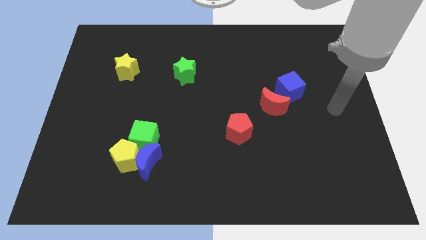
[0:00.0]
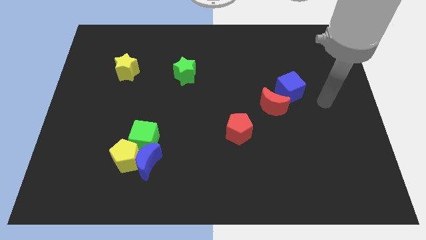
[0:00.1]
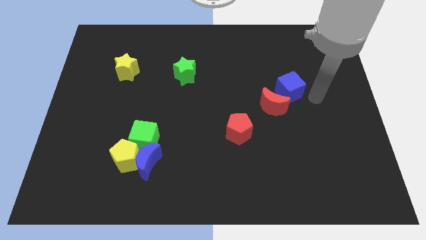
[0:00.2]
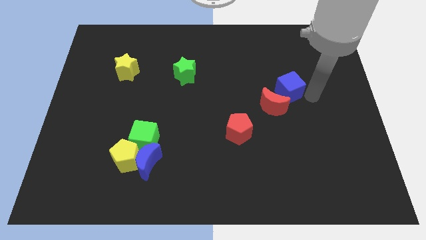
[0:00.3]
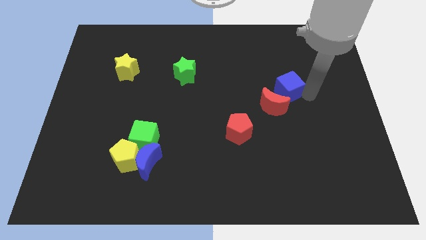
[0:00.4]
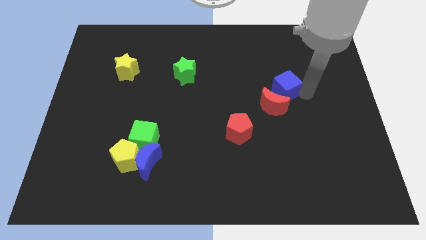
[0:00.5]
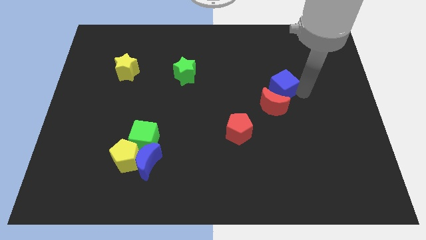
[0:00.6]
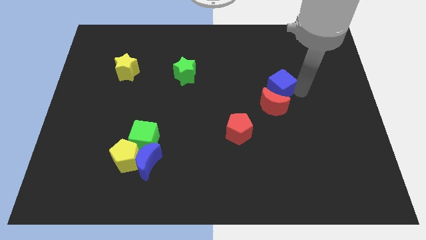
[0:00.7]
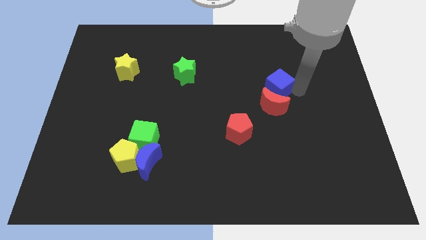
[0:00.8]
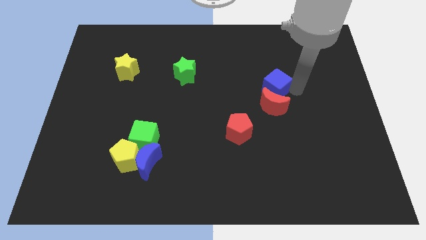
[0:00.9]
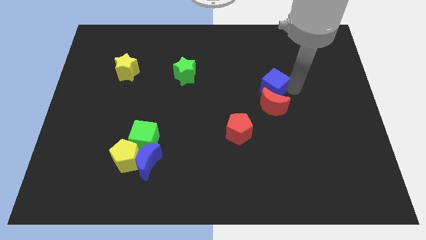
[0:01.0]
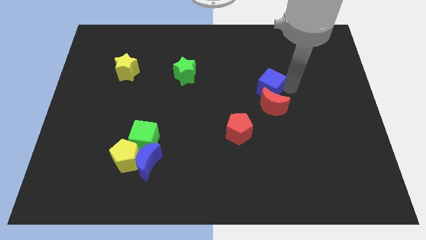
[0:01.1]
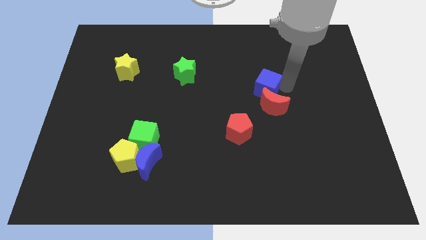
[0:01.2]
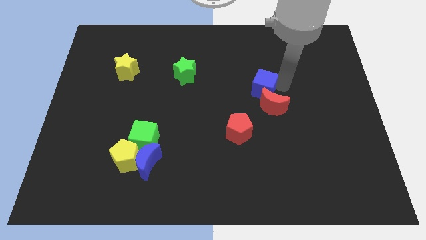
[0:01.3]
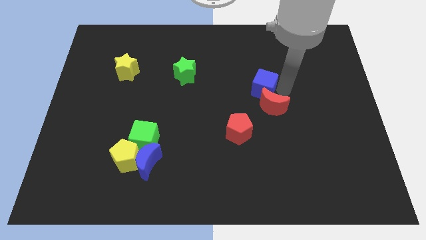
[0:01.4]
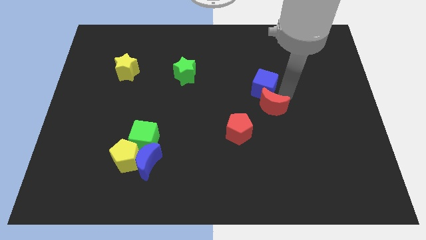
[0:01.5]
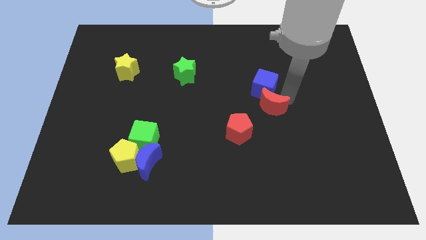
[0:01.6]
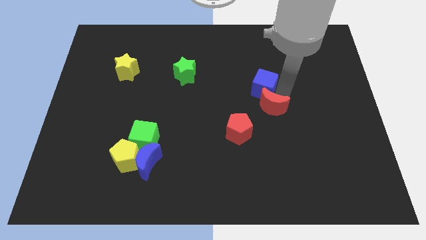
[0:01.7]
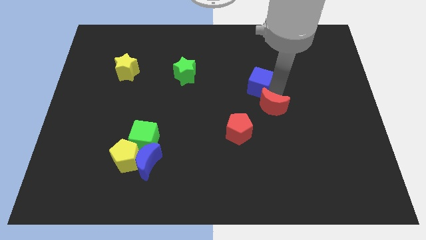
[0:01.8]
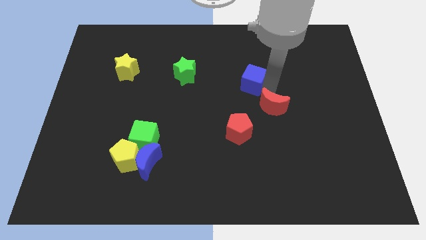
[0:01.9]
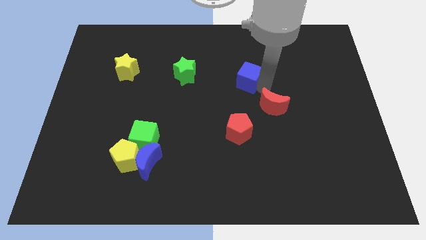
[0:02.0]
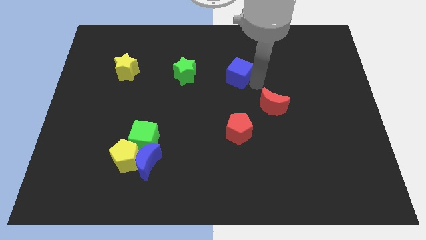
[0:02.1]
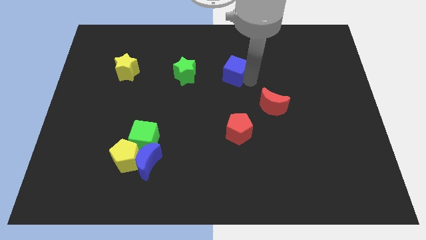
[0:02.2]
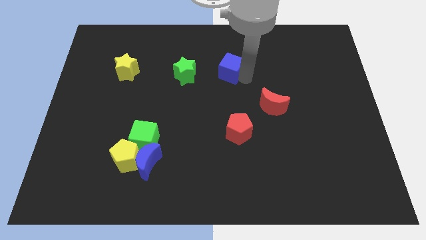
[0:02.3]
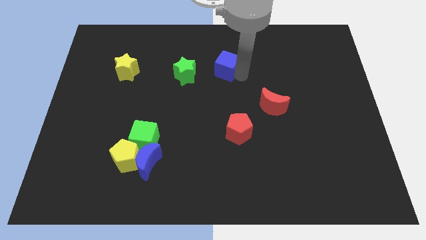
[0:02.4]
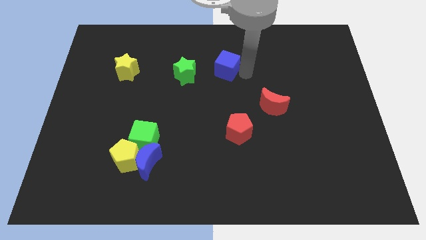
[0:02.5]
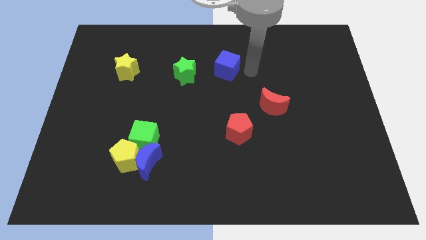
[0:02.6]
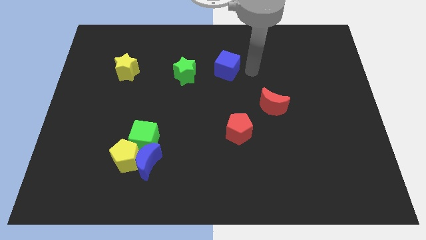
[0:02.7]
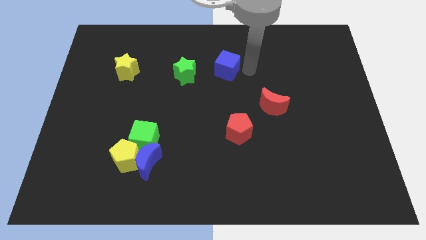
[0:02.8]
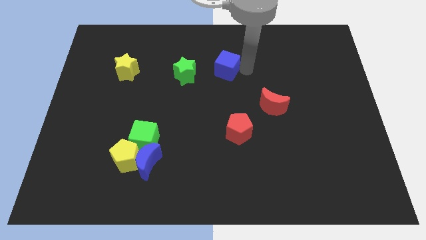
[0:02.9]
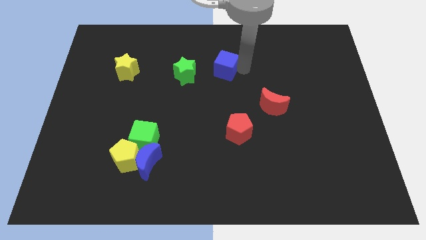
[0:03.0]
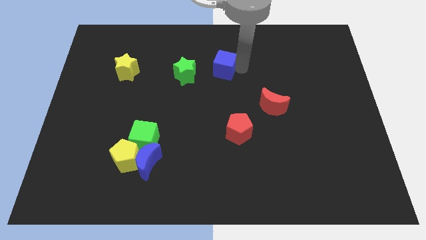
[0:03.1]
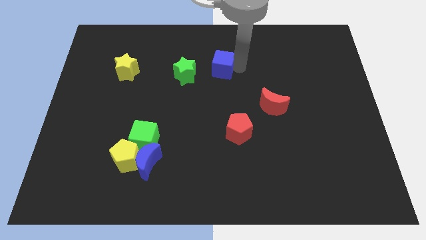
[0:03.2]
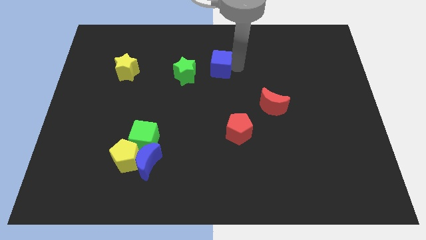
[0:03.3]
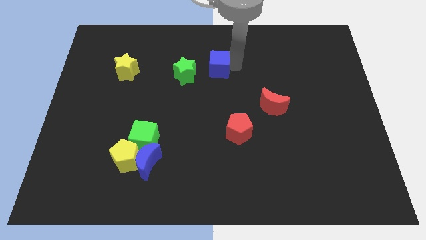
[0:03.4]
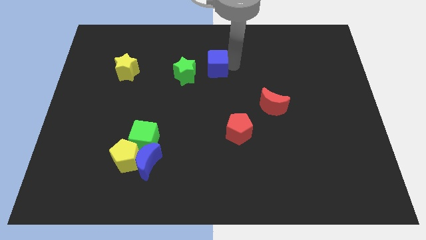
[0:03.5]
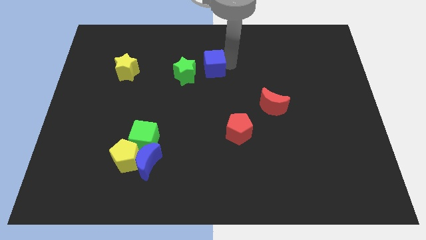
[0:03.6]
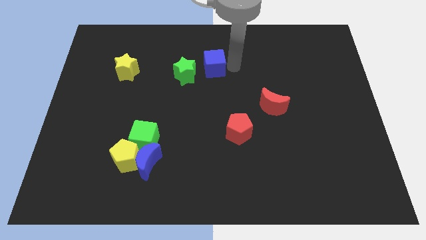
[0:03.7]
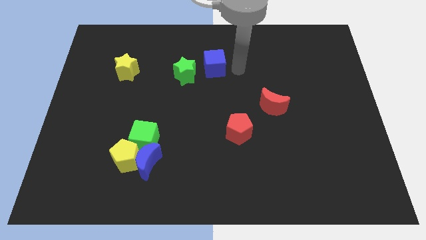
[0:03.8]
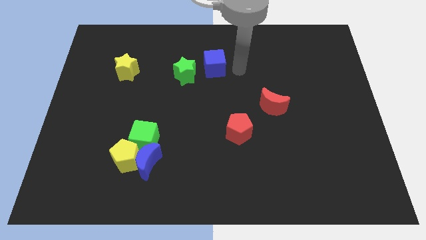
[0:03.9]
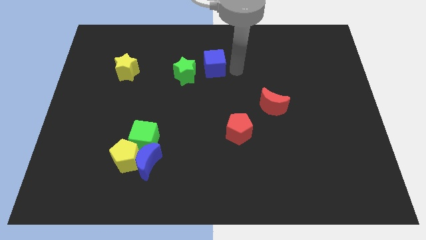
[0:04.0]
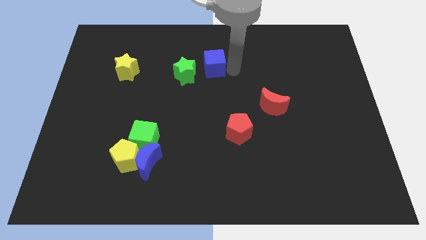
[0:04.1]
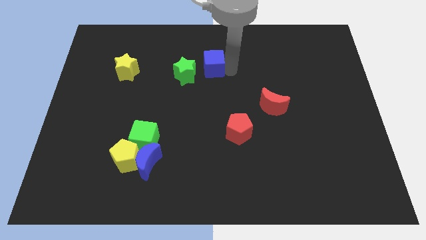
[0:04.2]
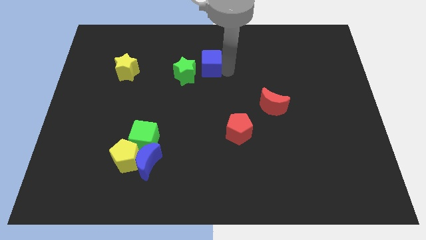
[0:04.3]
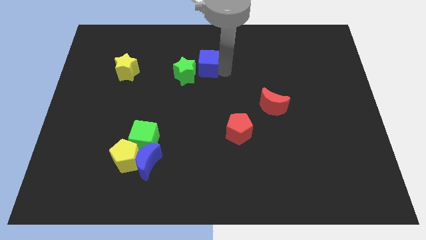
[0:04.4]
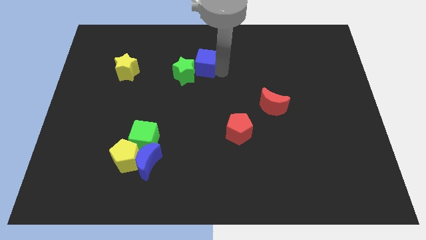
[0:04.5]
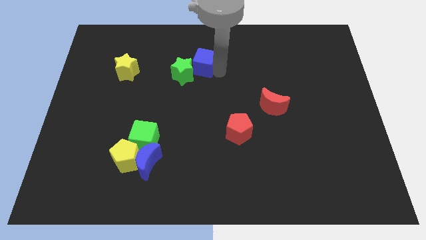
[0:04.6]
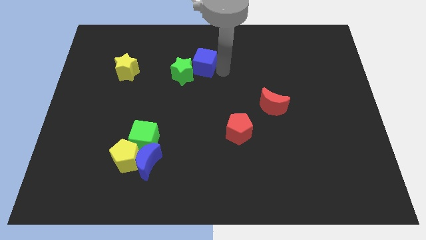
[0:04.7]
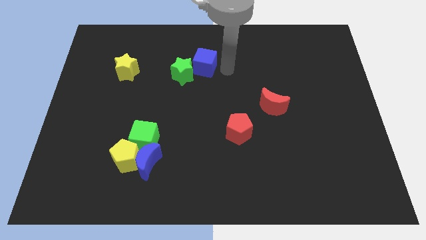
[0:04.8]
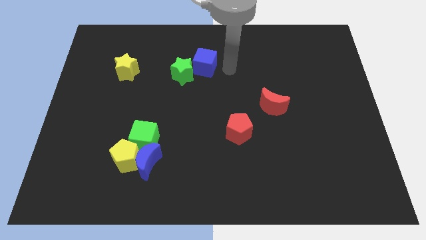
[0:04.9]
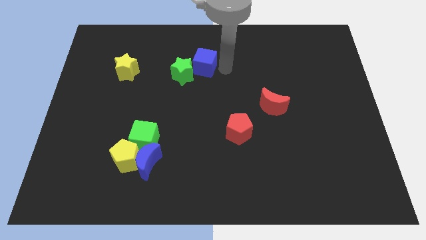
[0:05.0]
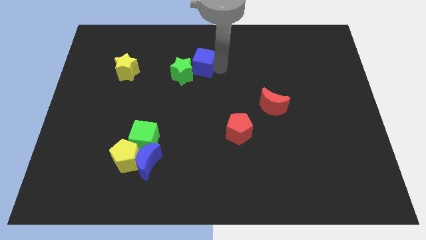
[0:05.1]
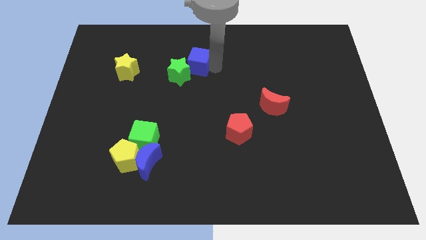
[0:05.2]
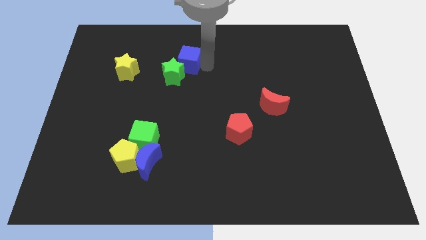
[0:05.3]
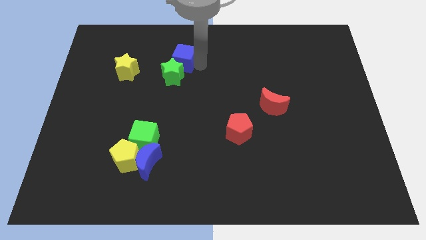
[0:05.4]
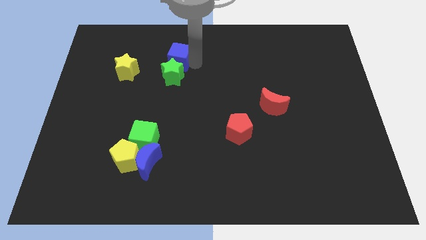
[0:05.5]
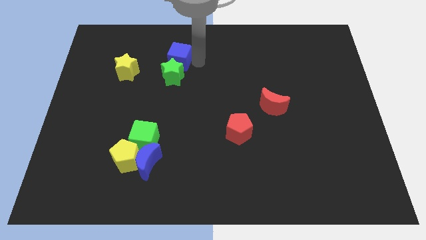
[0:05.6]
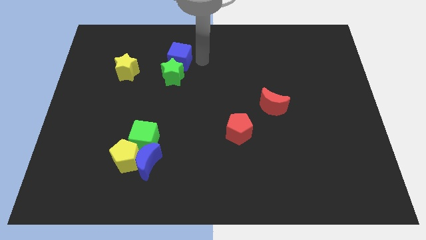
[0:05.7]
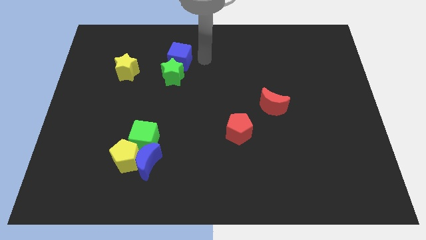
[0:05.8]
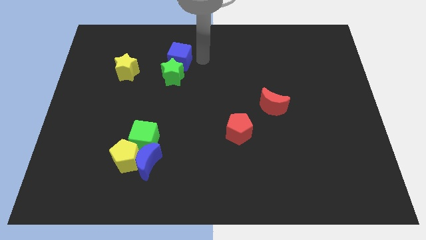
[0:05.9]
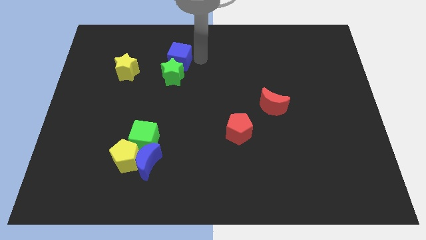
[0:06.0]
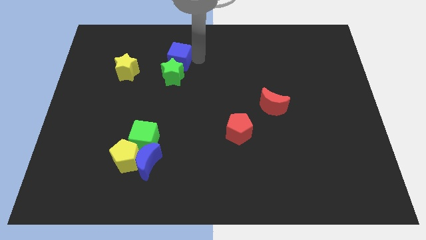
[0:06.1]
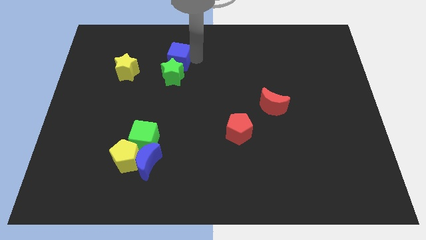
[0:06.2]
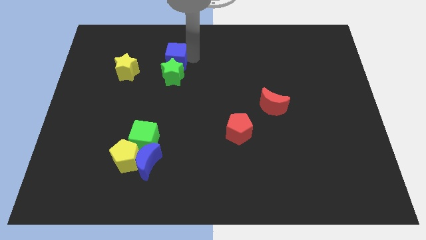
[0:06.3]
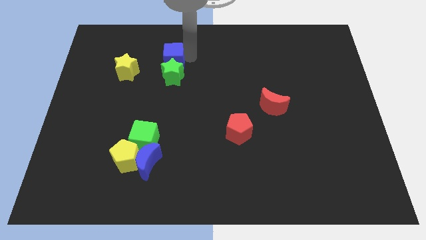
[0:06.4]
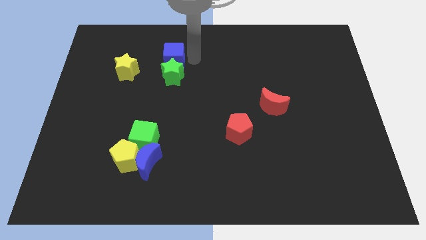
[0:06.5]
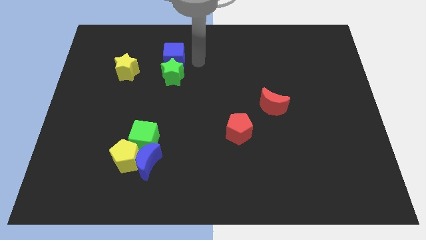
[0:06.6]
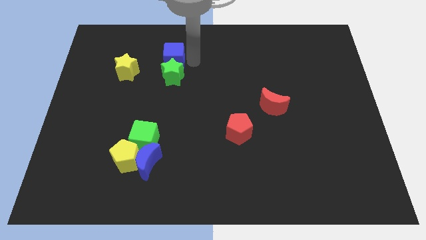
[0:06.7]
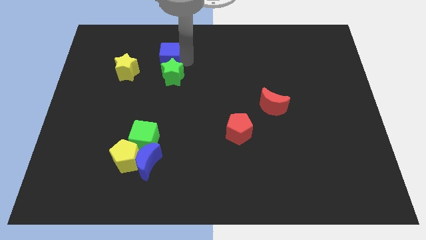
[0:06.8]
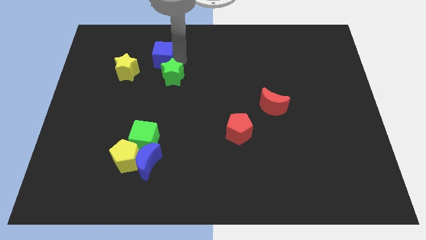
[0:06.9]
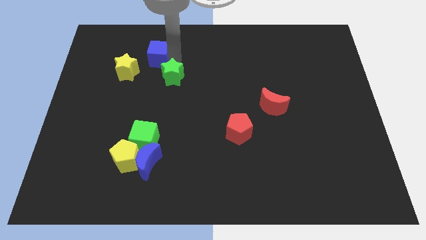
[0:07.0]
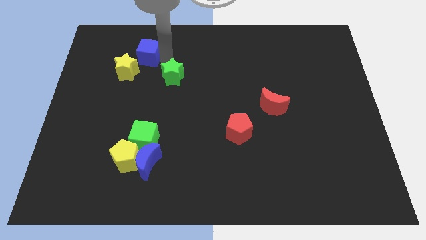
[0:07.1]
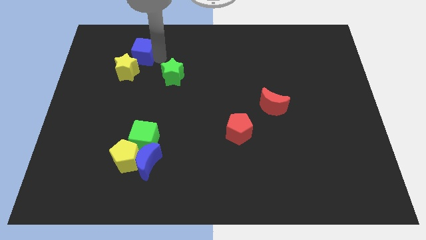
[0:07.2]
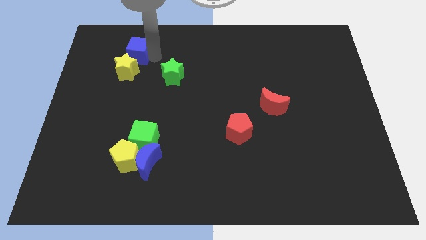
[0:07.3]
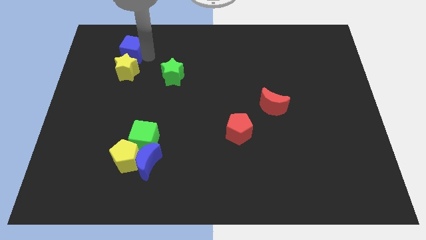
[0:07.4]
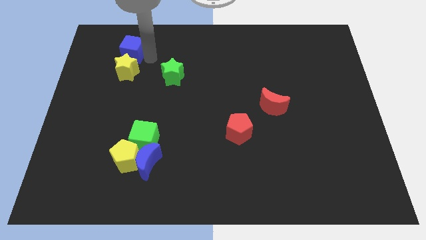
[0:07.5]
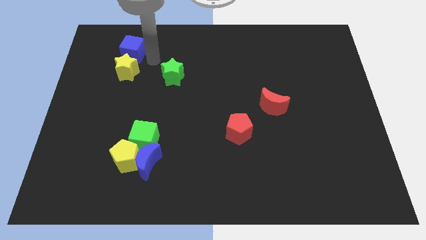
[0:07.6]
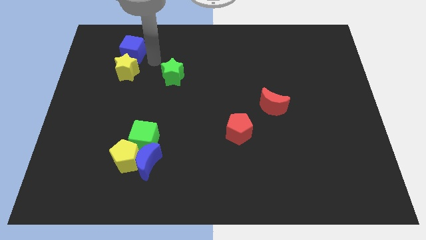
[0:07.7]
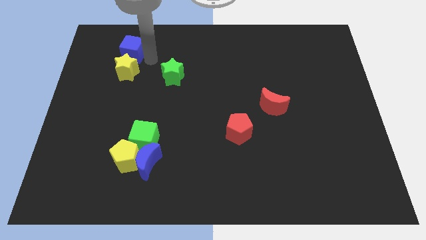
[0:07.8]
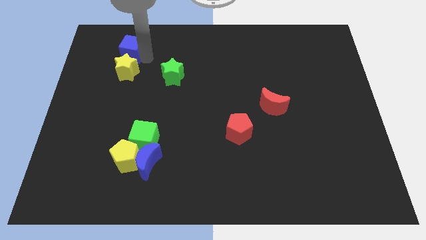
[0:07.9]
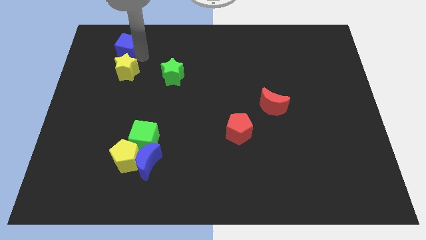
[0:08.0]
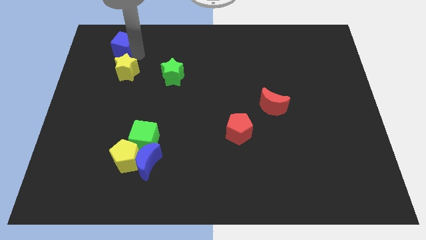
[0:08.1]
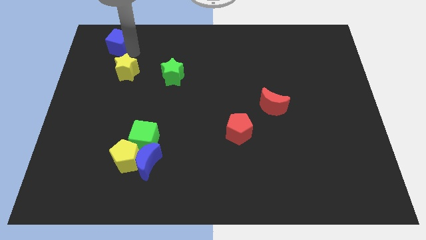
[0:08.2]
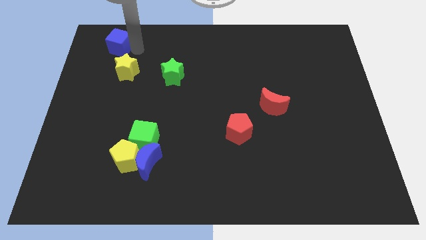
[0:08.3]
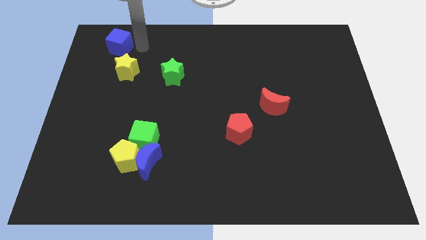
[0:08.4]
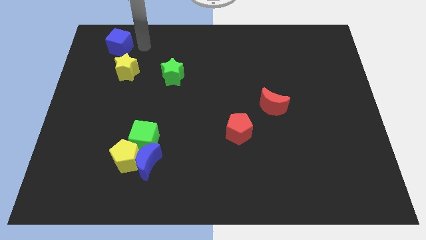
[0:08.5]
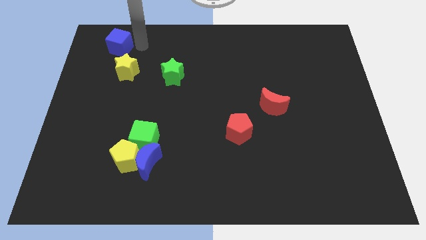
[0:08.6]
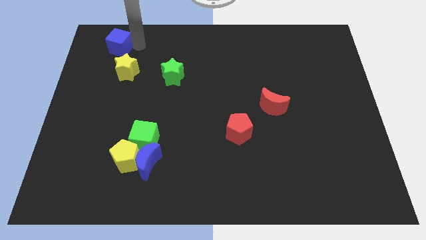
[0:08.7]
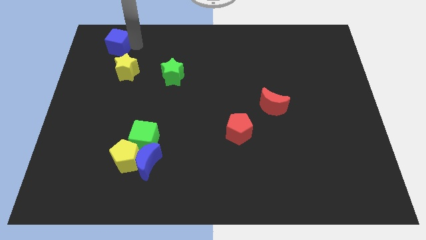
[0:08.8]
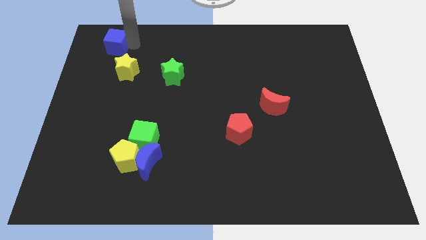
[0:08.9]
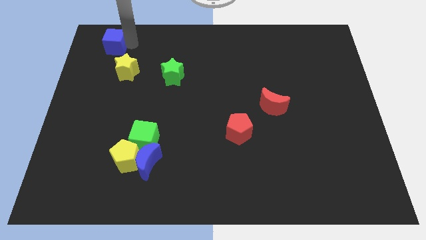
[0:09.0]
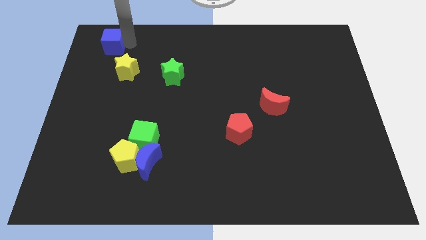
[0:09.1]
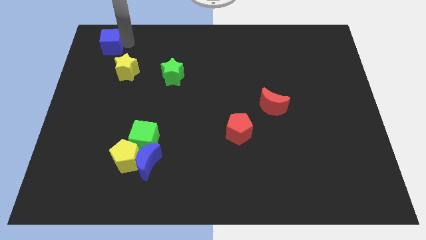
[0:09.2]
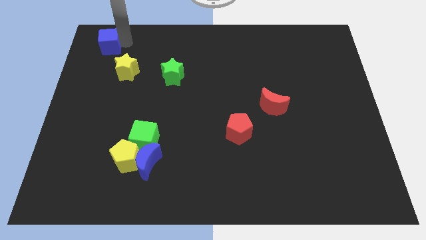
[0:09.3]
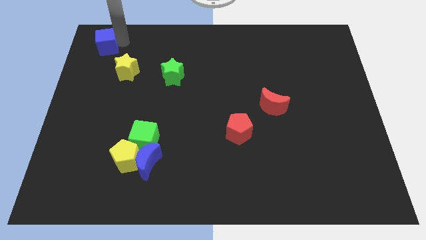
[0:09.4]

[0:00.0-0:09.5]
put the blue cube to the upper left corner
